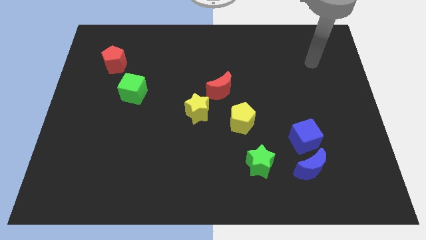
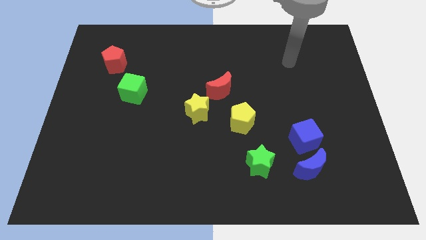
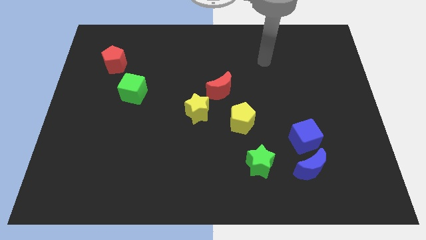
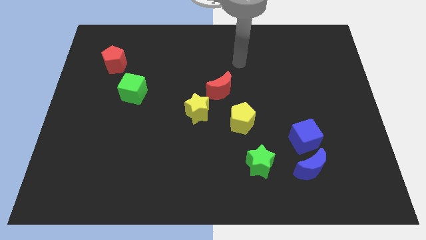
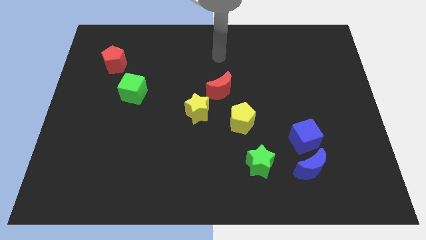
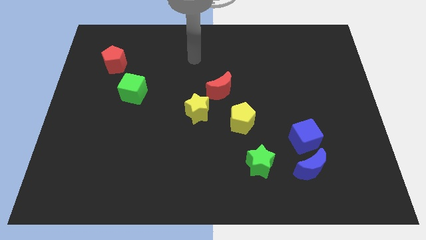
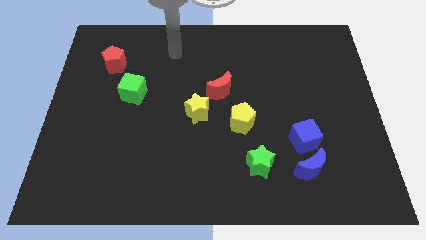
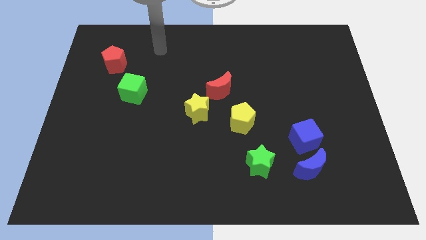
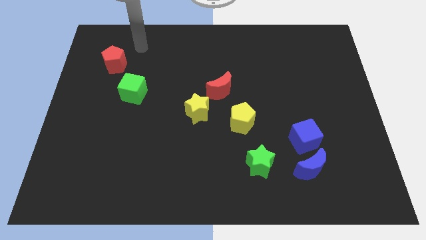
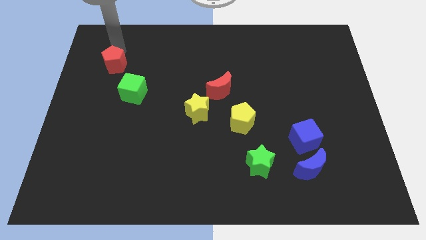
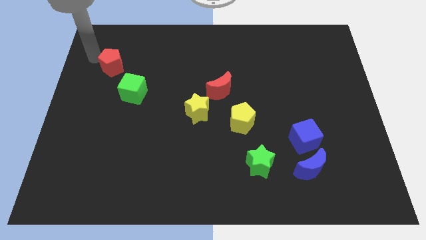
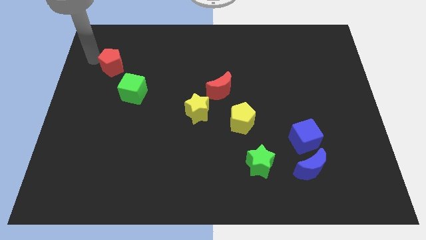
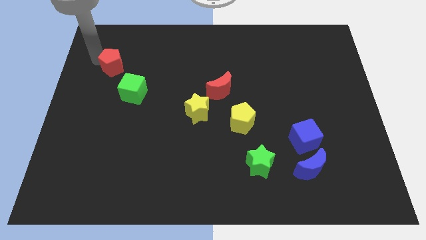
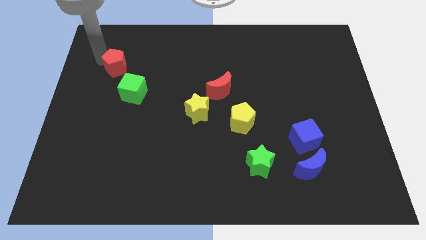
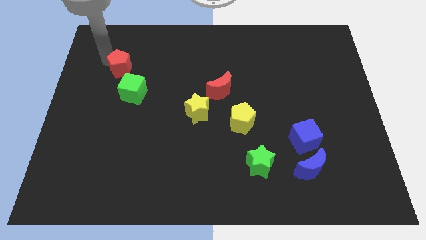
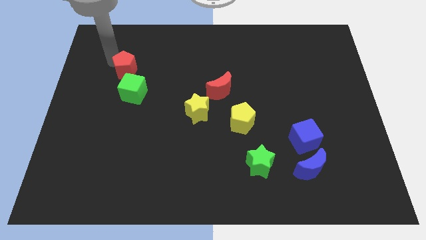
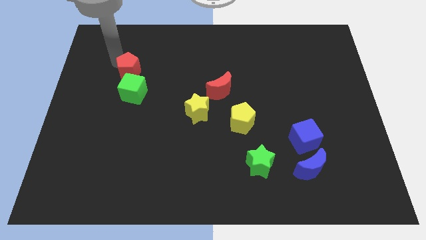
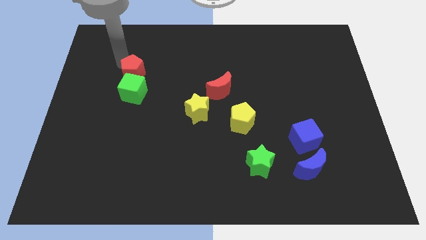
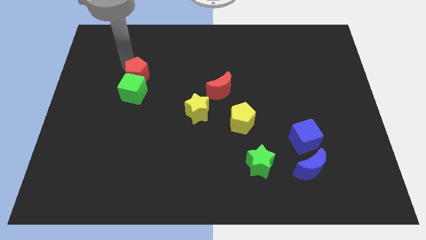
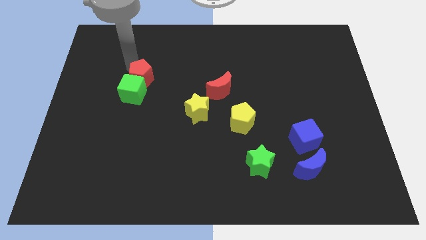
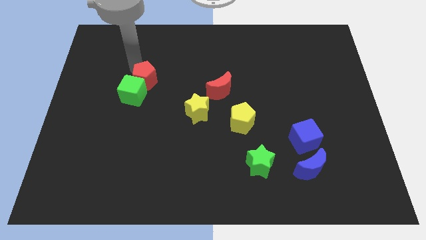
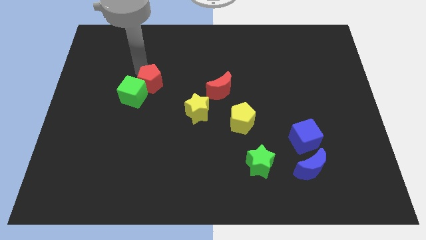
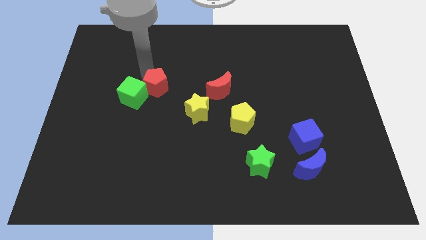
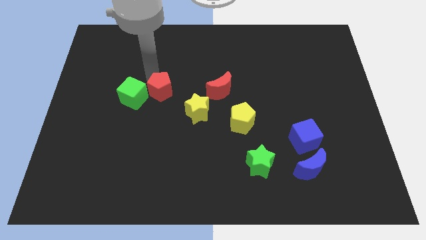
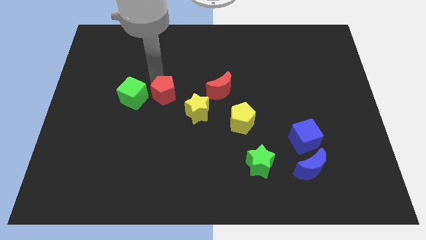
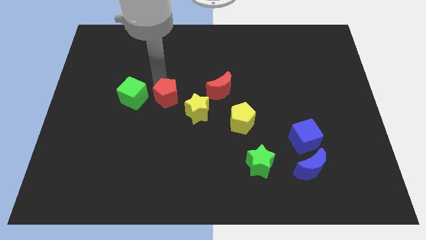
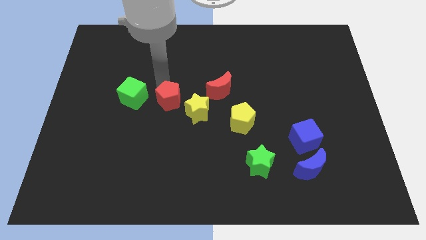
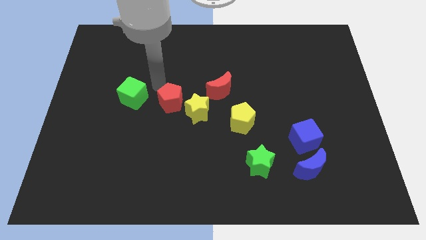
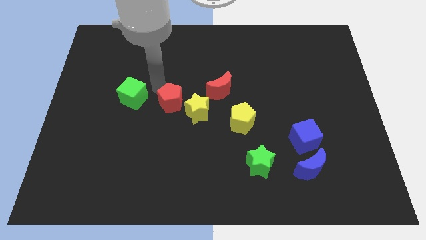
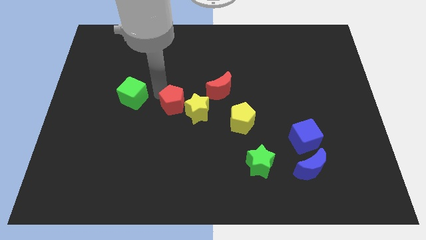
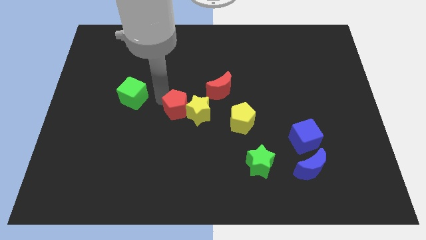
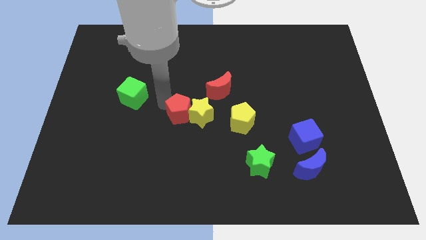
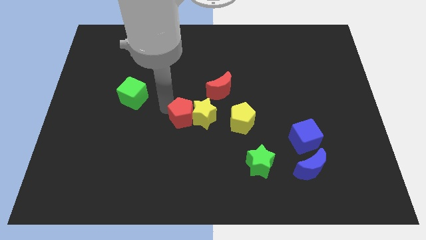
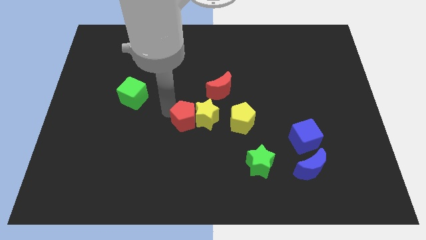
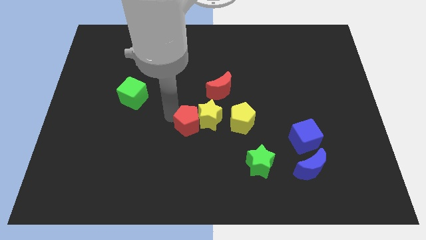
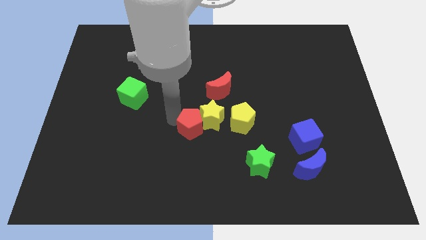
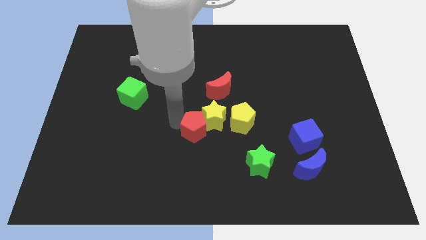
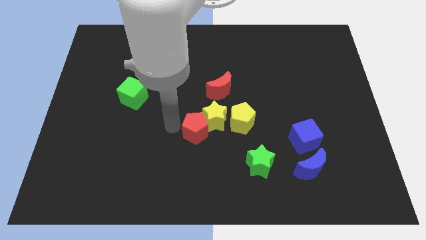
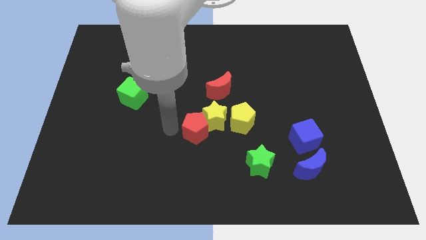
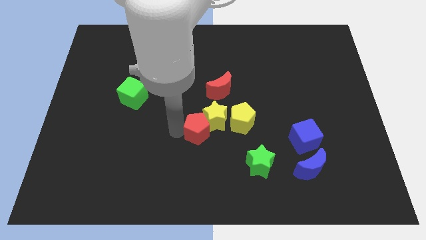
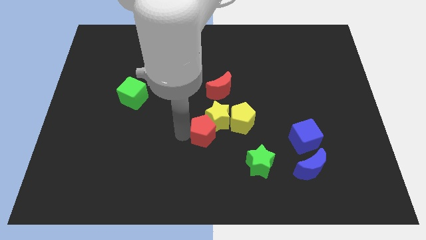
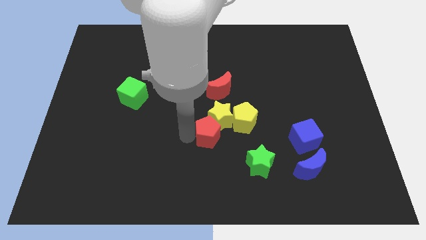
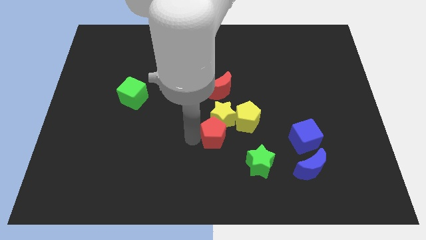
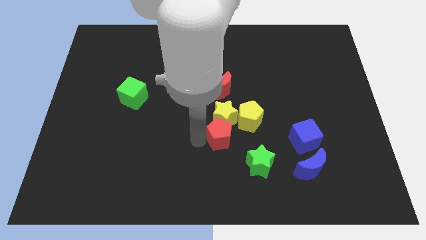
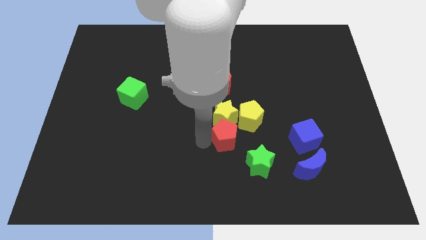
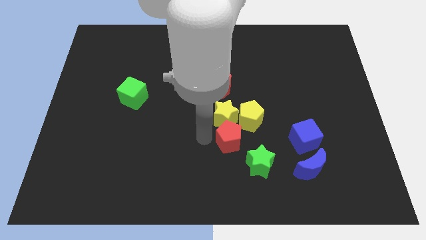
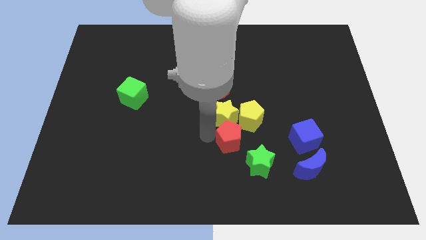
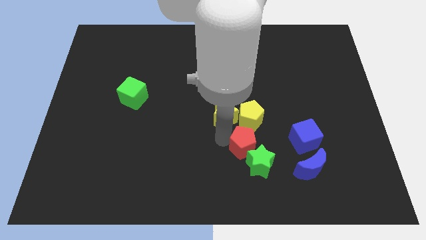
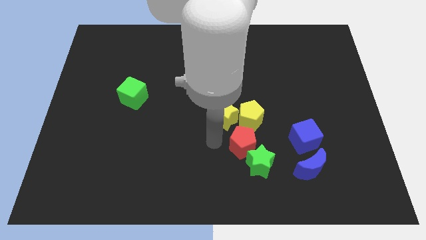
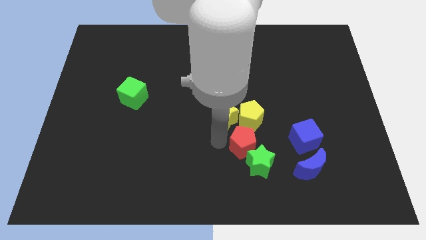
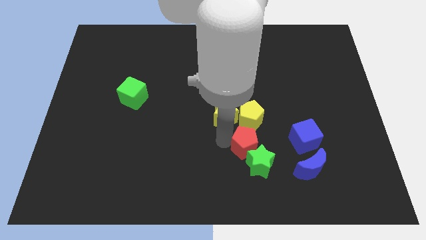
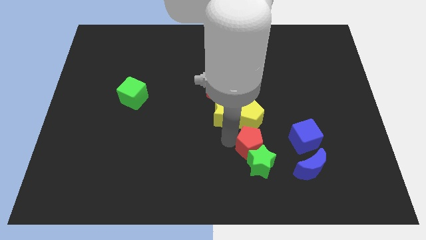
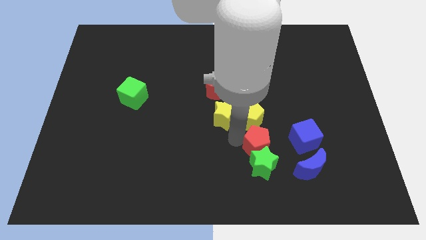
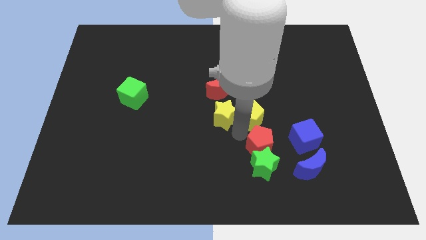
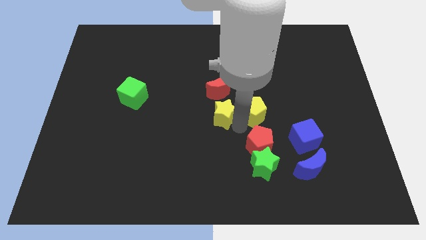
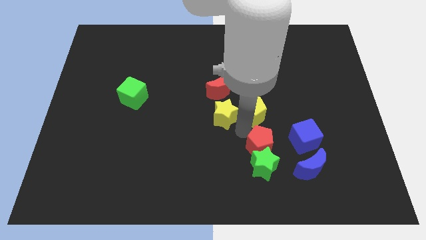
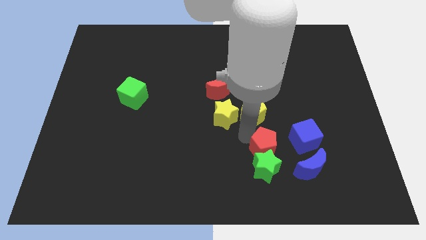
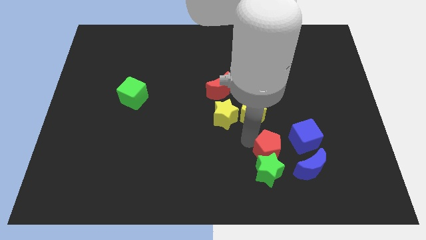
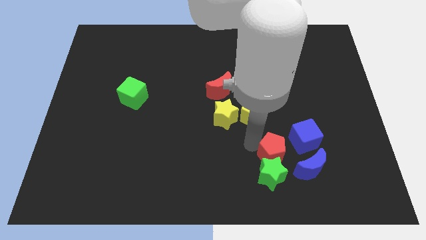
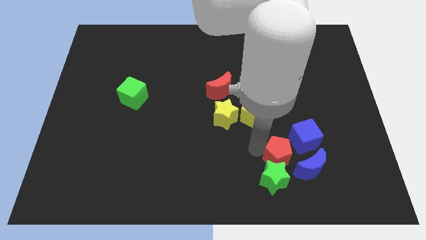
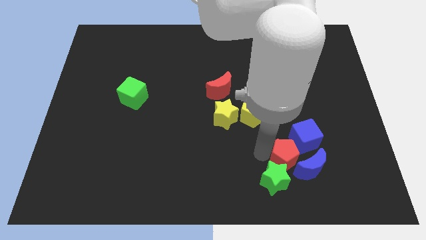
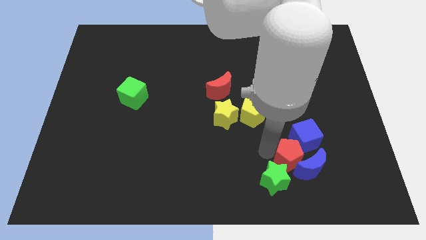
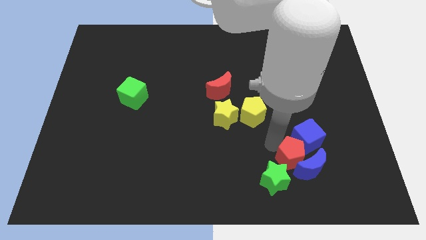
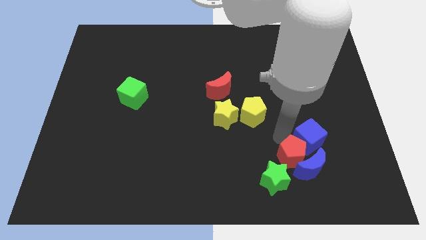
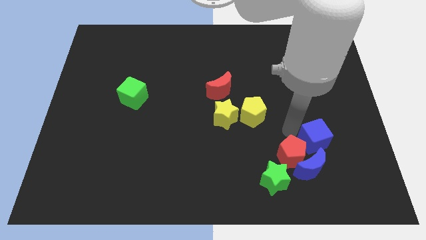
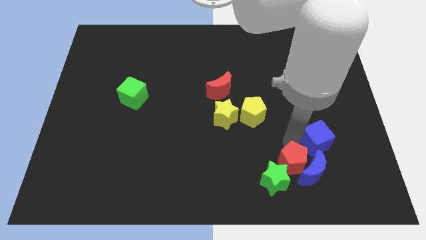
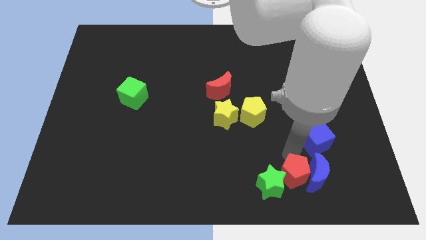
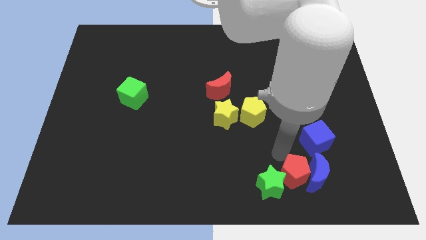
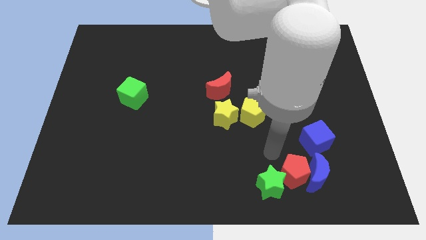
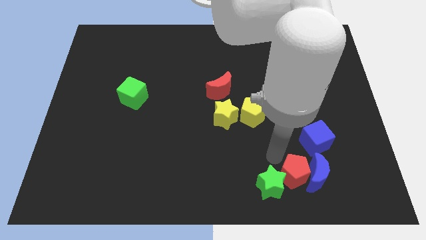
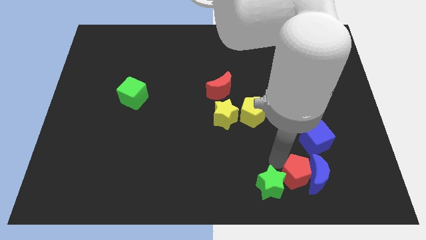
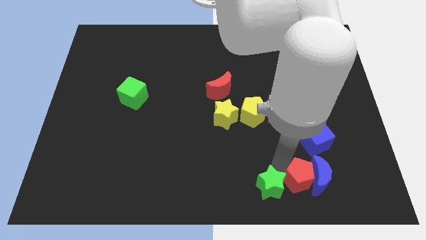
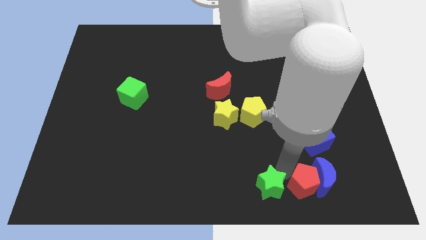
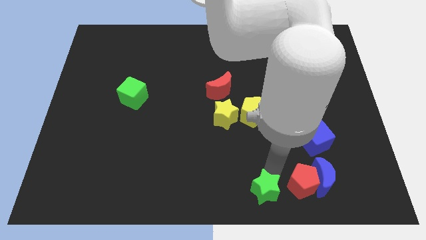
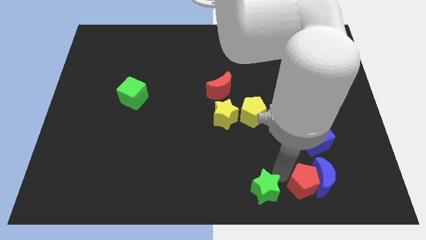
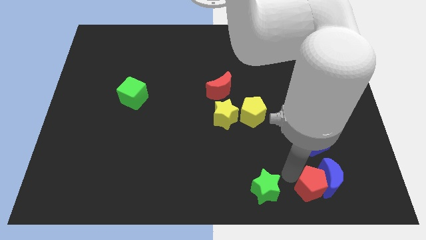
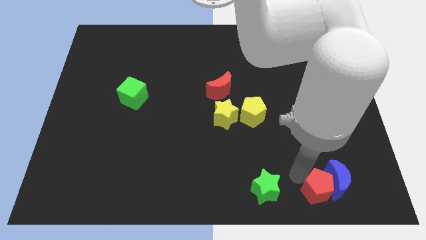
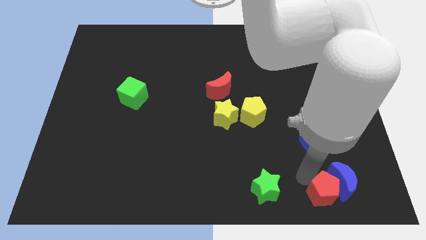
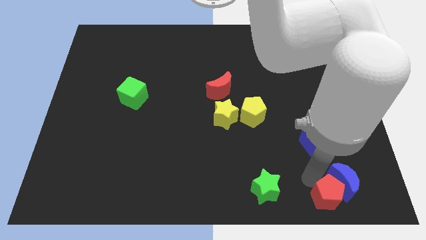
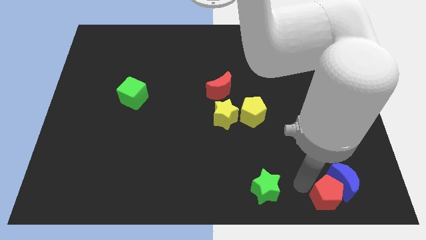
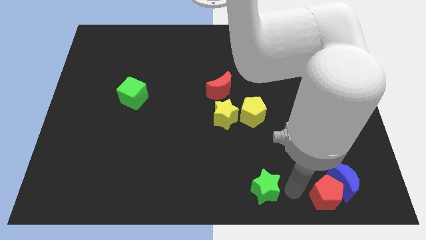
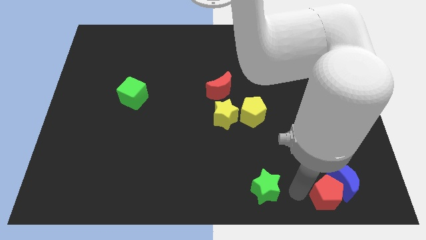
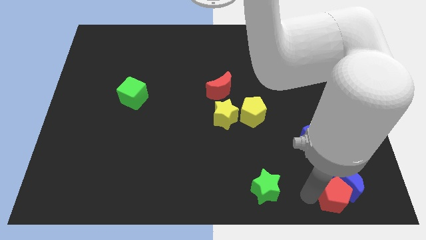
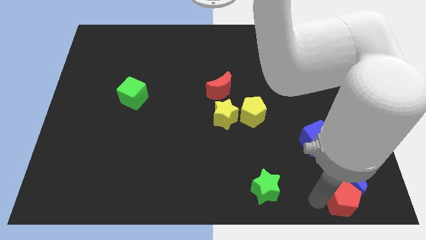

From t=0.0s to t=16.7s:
push the red pentagon to the bottom right corner
